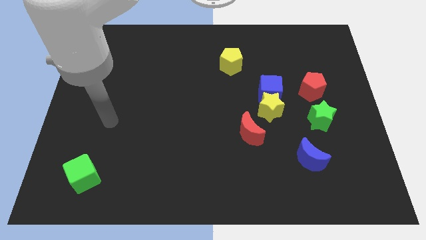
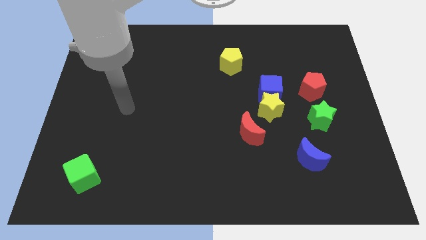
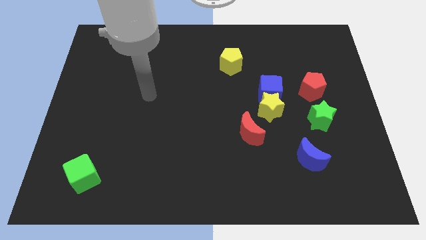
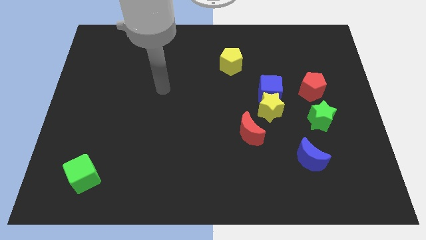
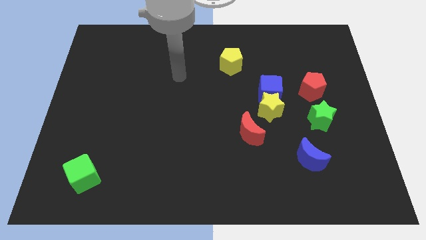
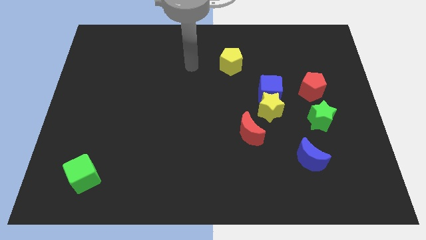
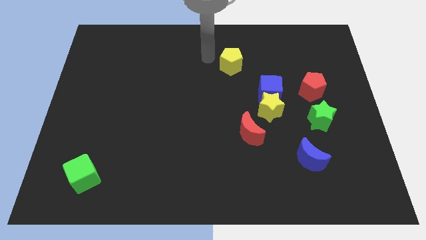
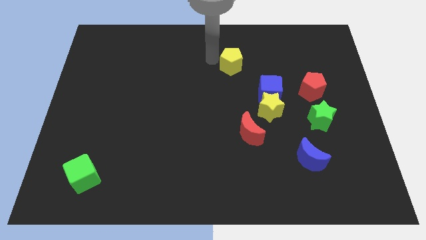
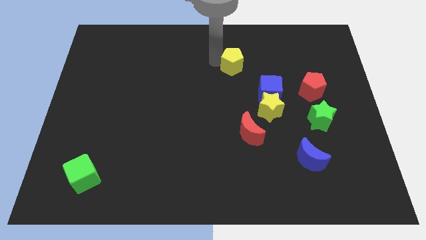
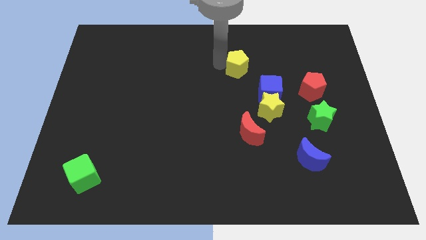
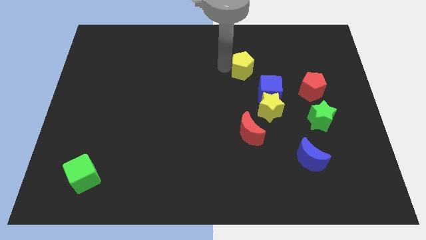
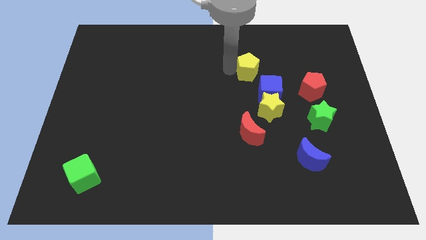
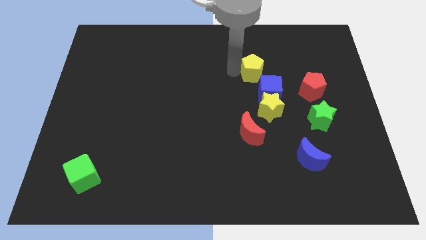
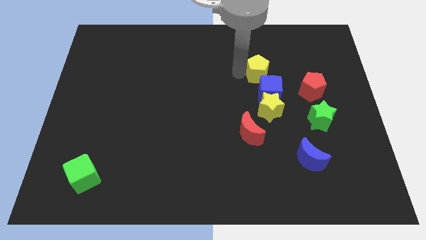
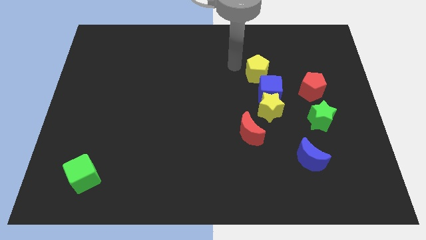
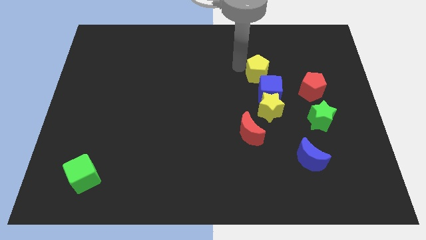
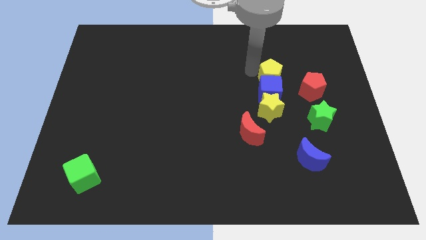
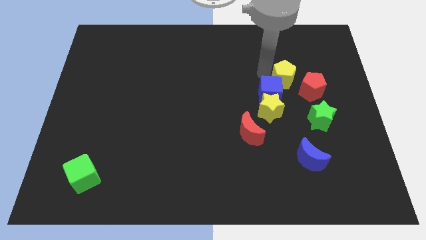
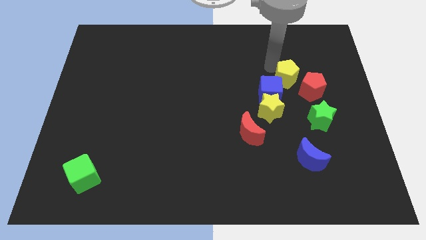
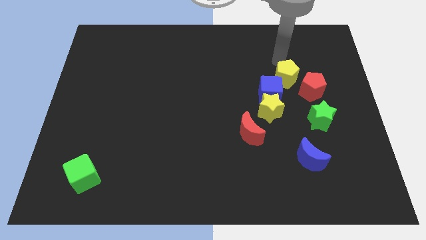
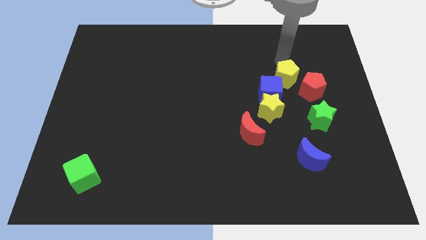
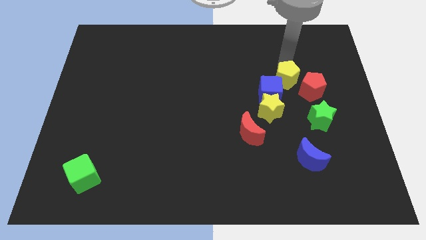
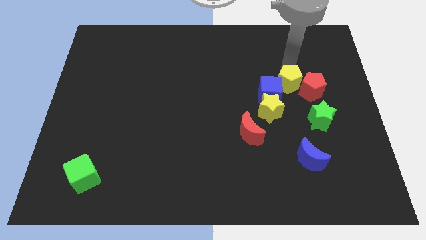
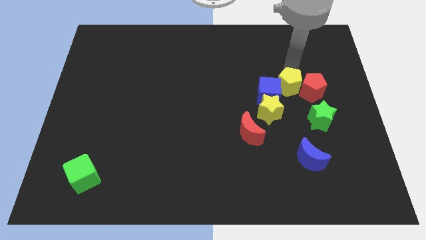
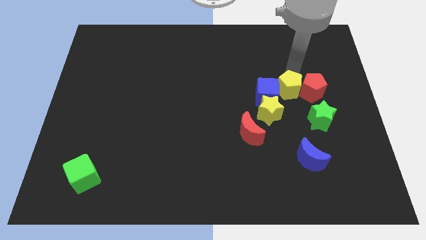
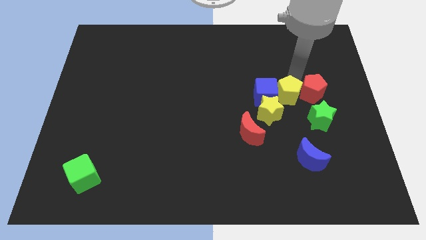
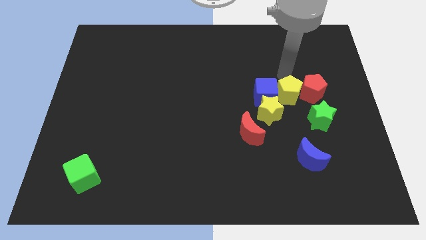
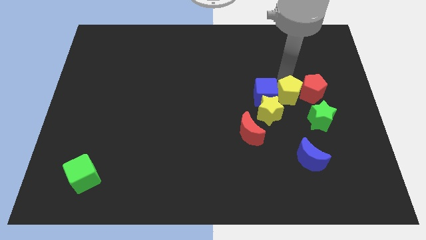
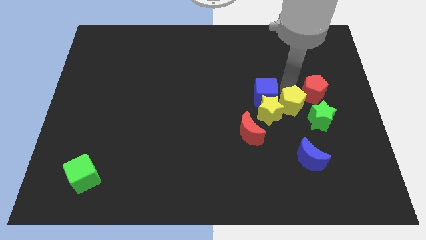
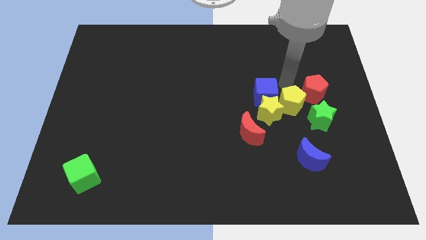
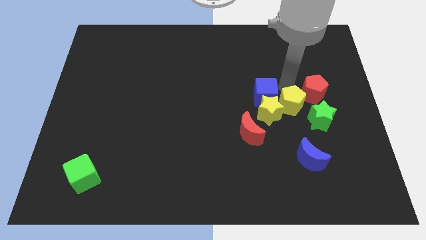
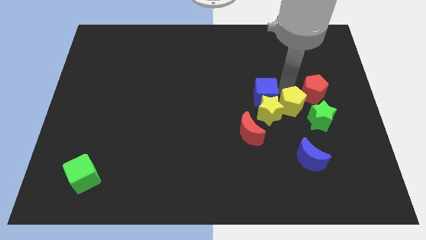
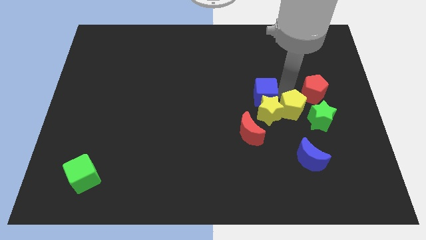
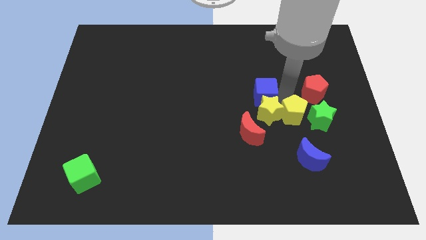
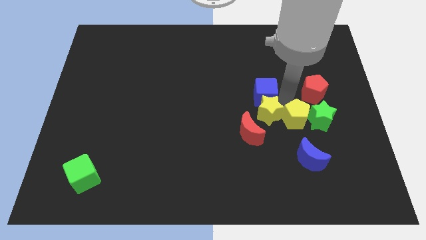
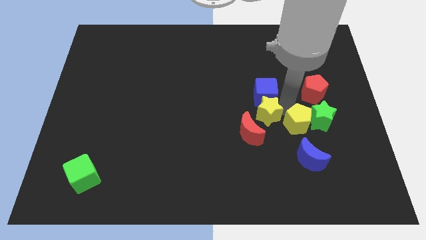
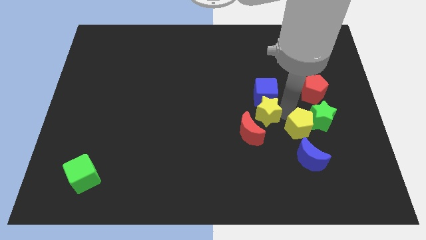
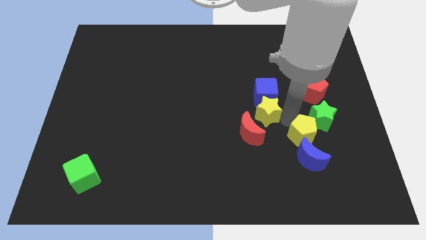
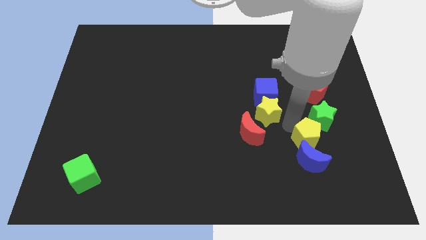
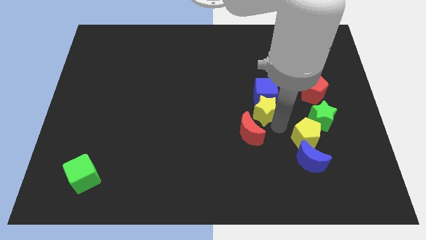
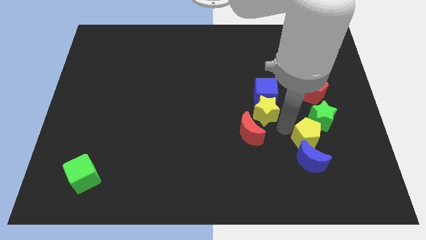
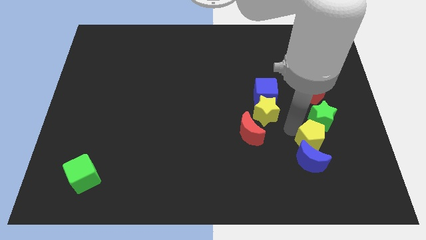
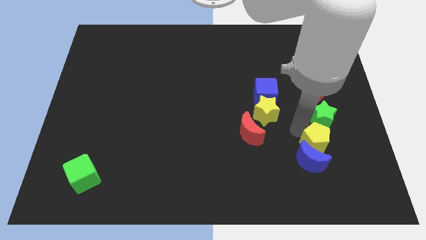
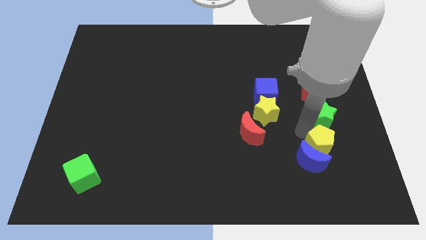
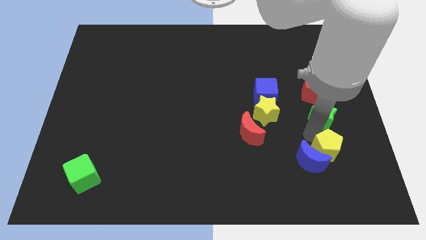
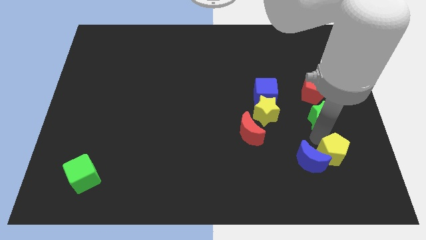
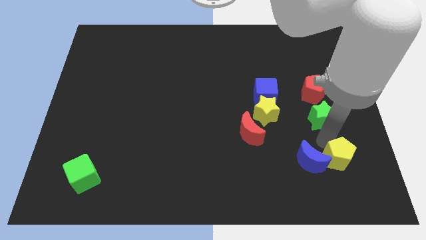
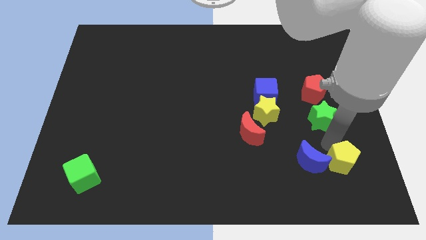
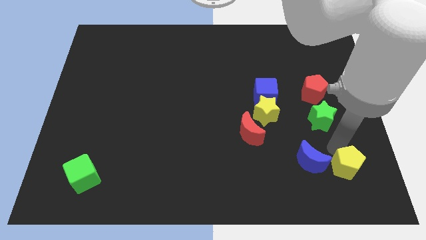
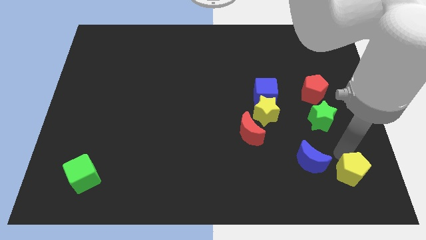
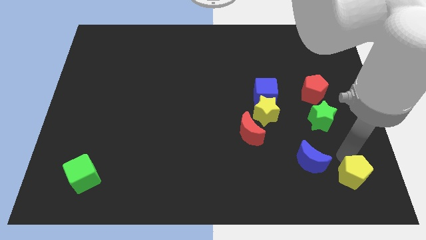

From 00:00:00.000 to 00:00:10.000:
put the yellow pentagon to the bottom right of the board

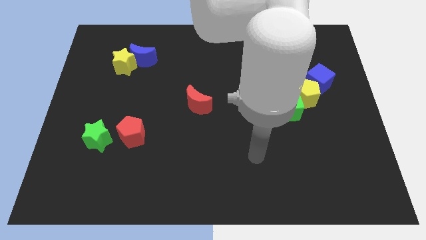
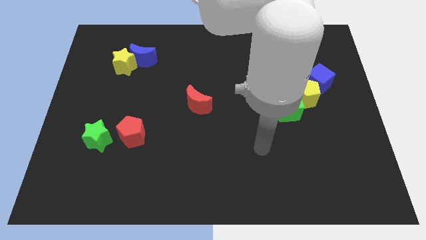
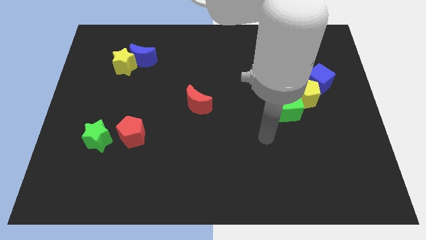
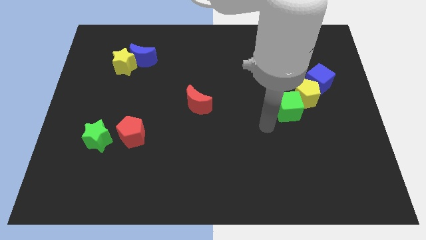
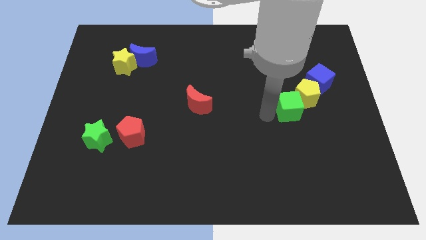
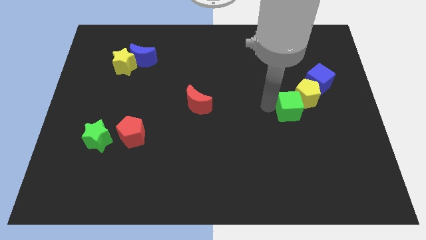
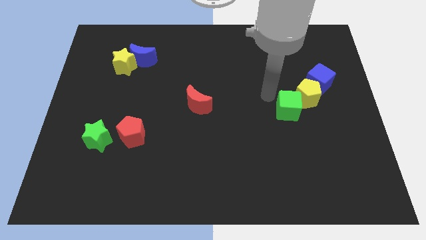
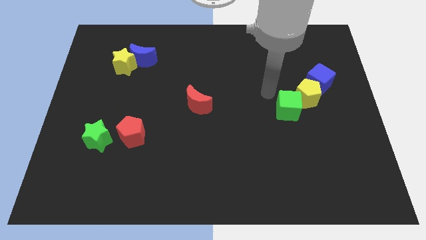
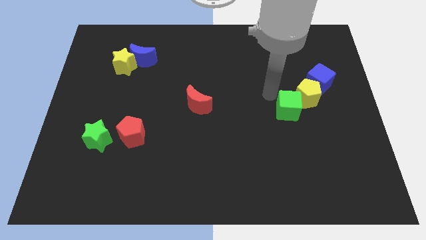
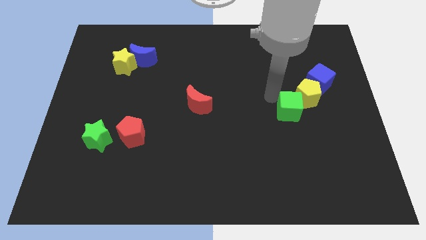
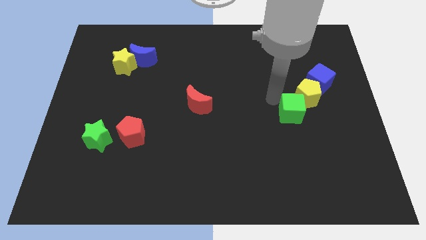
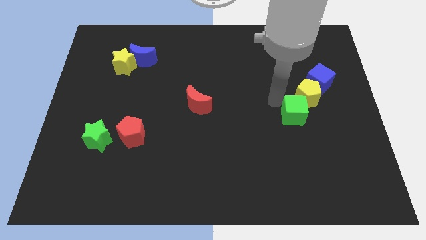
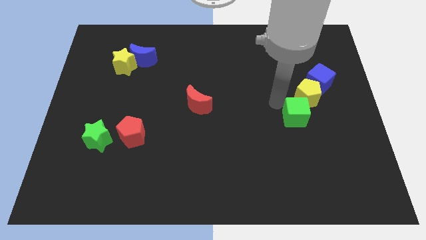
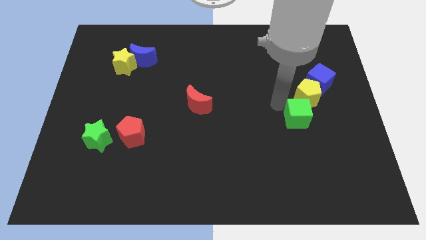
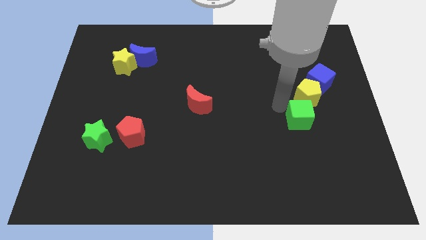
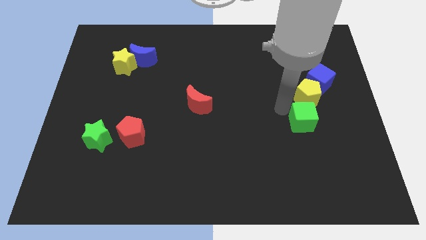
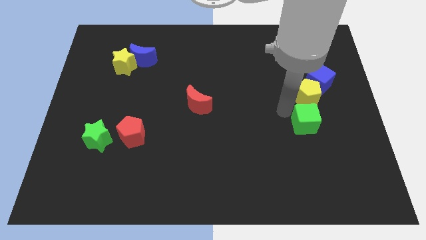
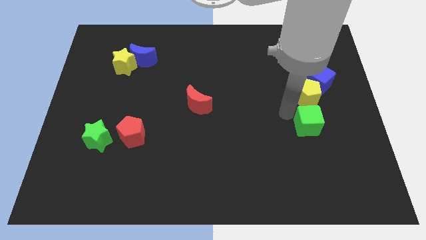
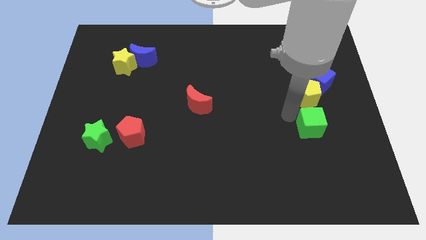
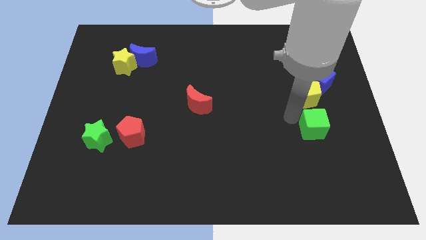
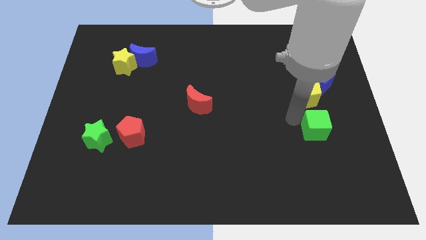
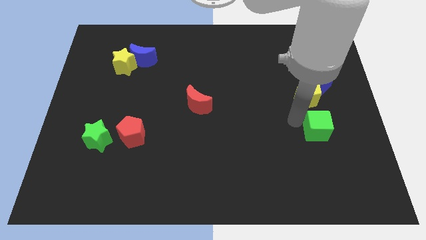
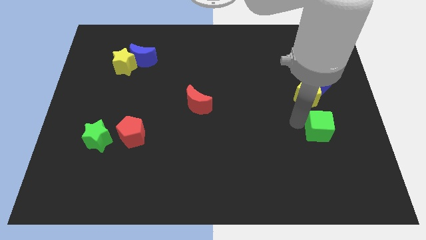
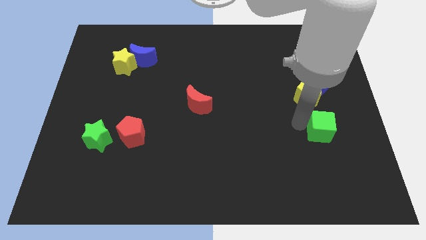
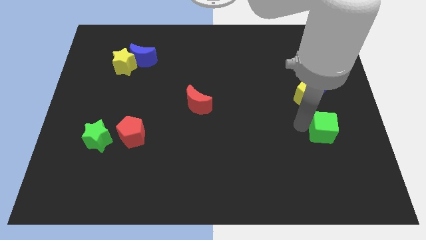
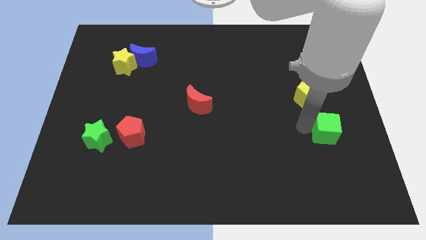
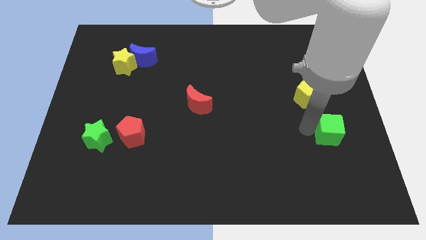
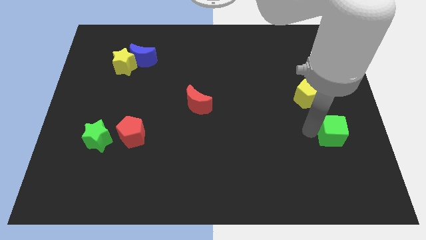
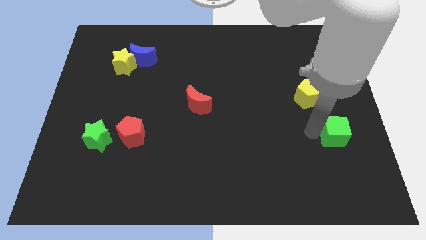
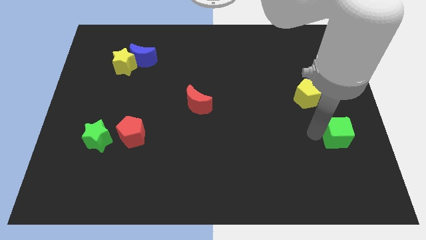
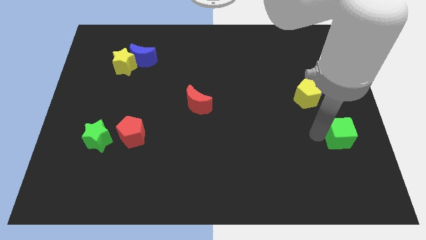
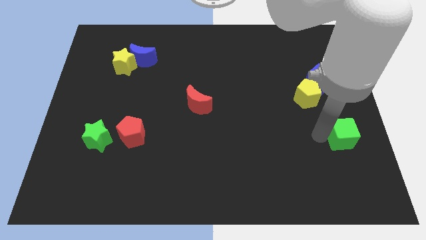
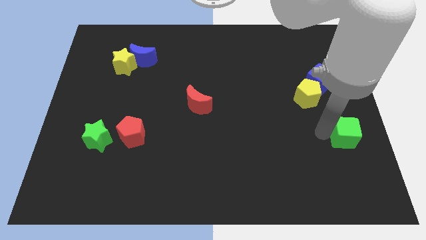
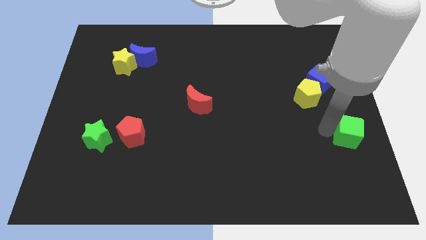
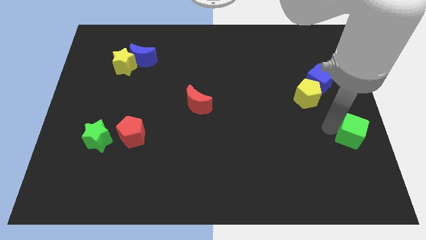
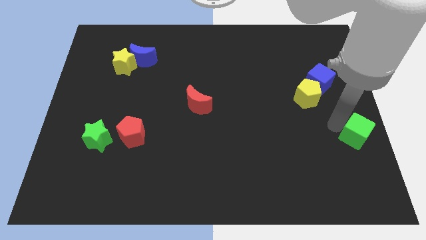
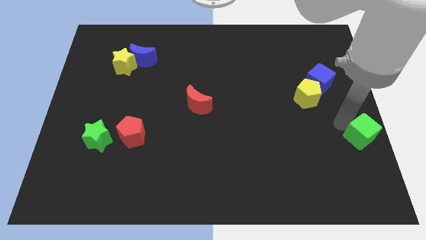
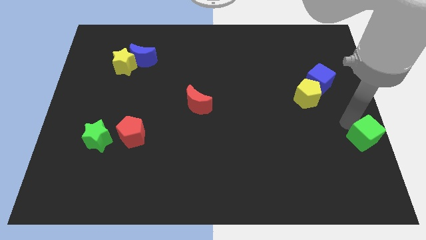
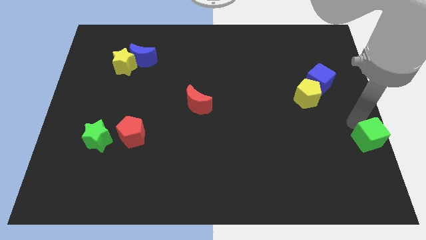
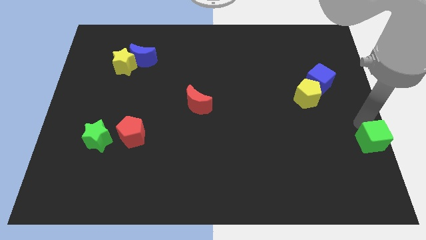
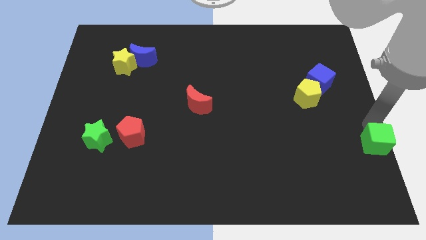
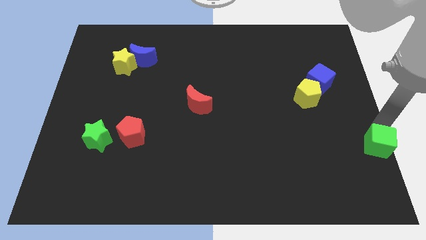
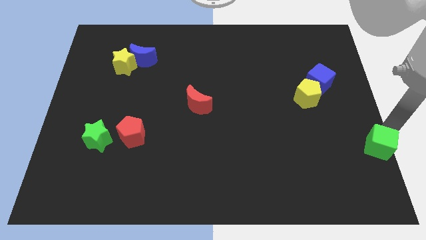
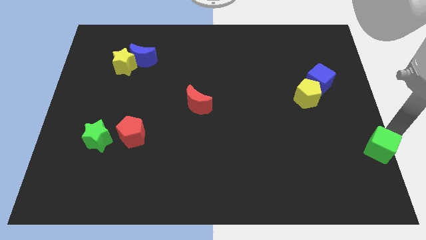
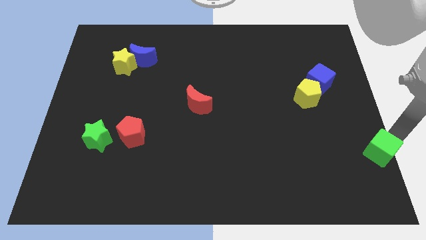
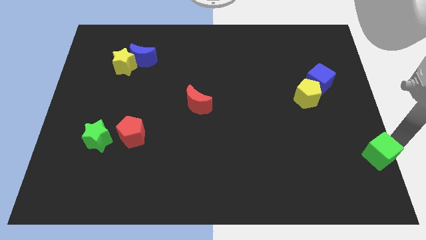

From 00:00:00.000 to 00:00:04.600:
put the green cube to the bottom right of the board
